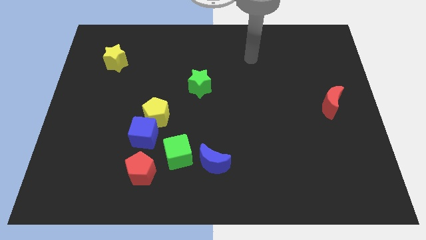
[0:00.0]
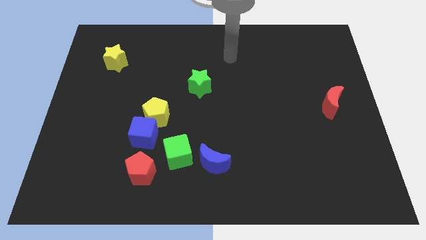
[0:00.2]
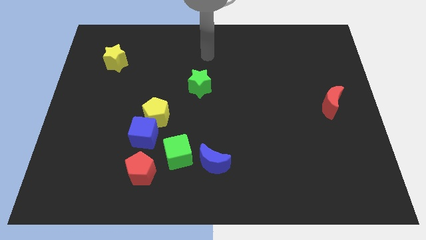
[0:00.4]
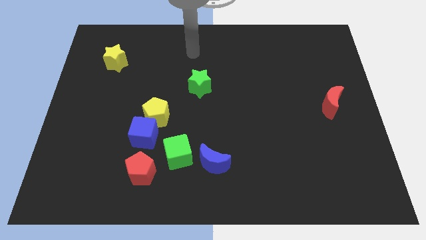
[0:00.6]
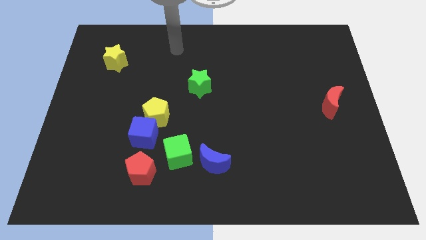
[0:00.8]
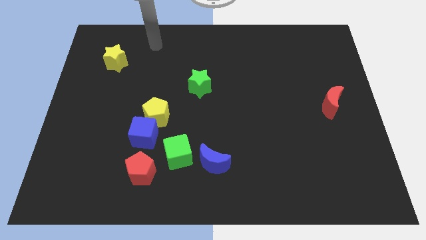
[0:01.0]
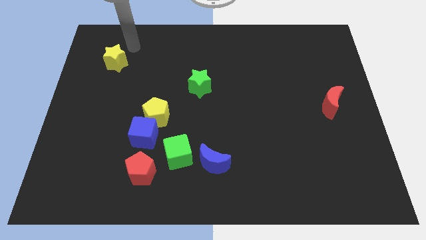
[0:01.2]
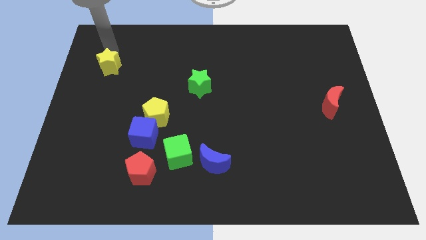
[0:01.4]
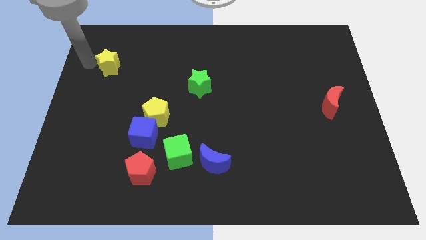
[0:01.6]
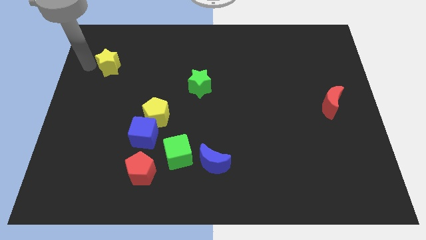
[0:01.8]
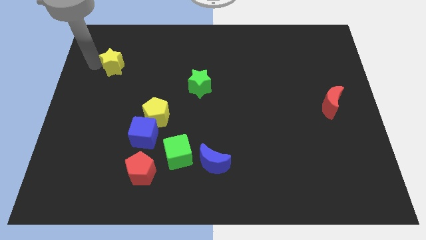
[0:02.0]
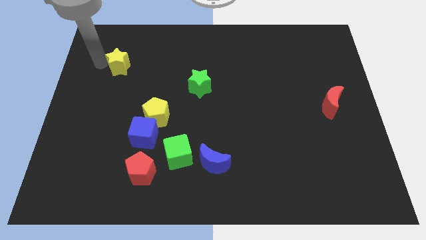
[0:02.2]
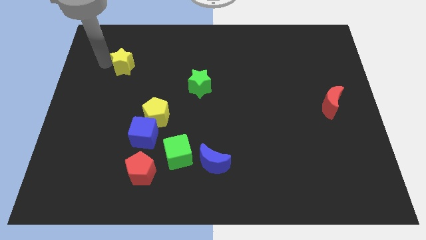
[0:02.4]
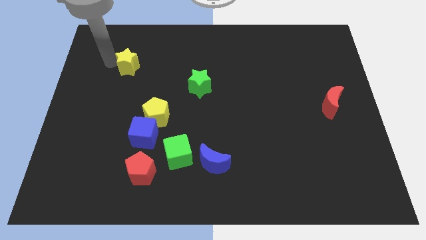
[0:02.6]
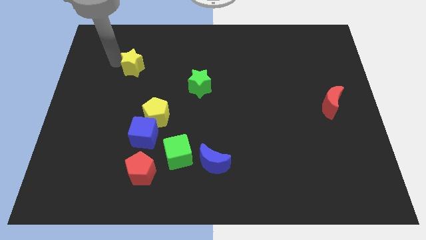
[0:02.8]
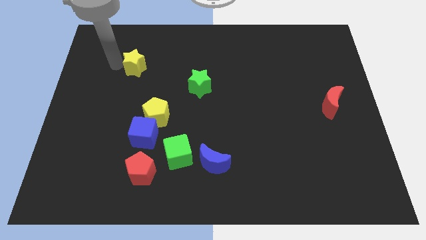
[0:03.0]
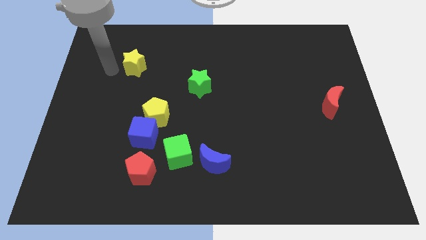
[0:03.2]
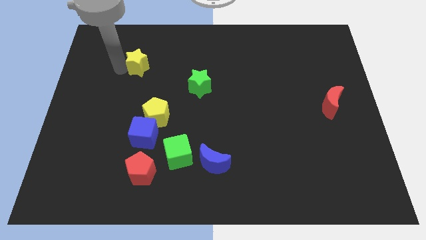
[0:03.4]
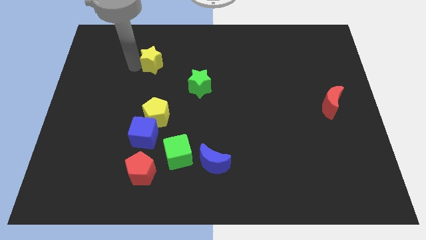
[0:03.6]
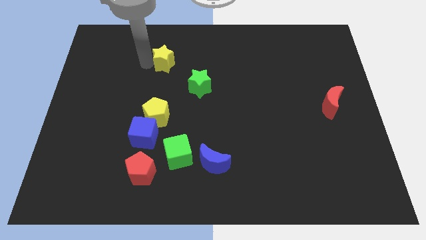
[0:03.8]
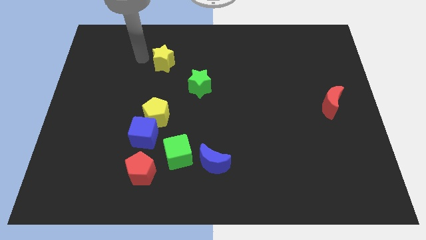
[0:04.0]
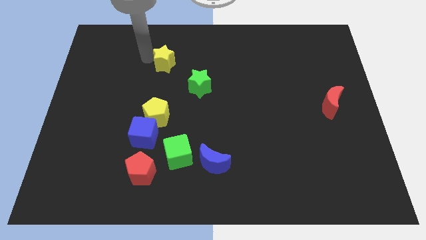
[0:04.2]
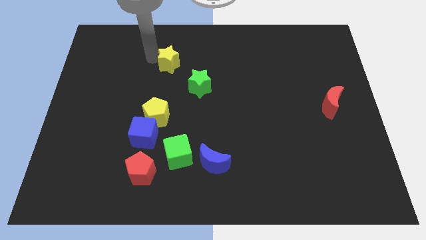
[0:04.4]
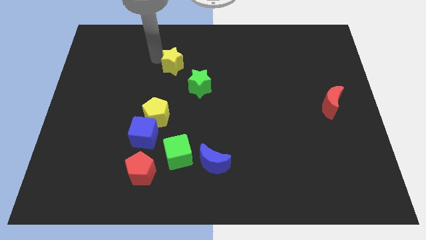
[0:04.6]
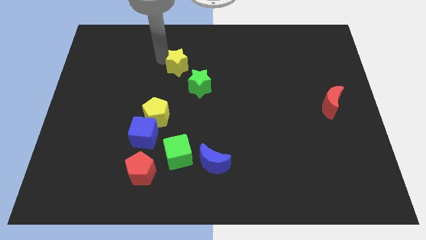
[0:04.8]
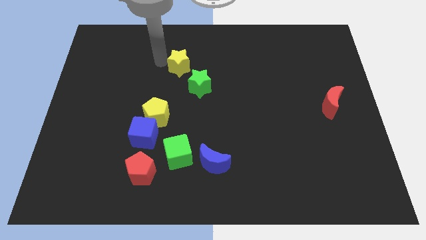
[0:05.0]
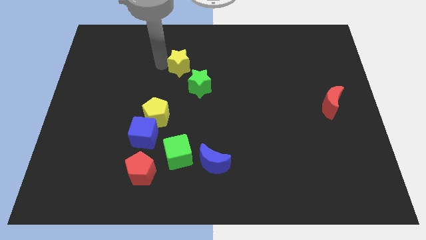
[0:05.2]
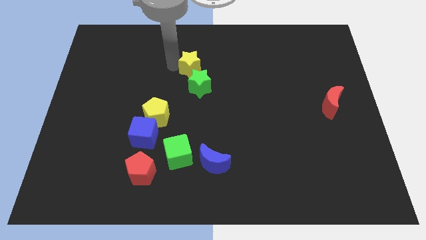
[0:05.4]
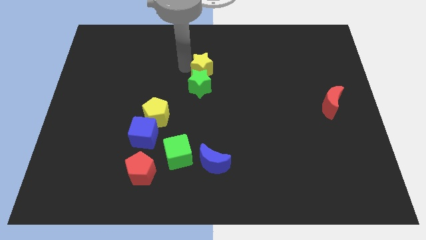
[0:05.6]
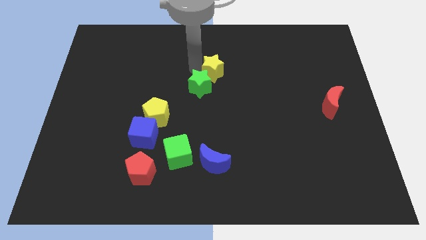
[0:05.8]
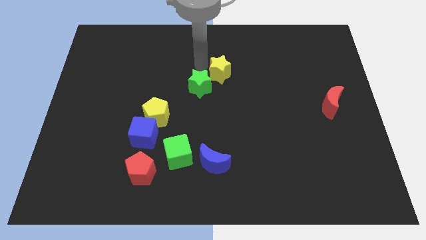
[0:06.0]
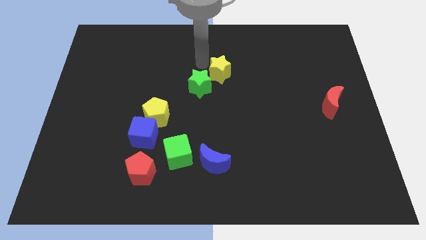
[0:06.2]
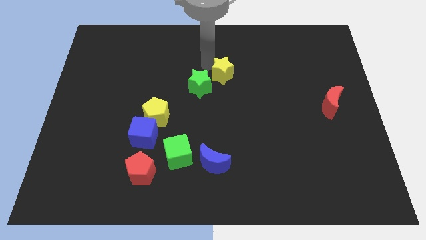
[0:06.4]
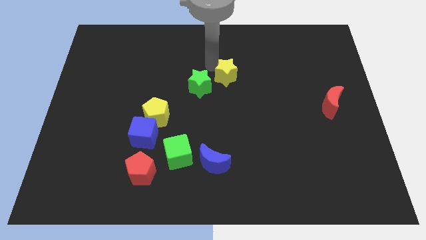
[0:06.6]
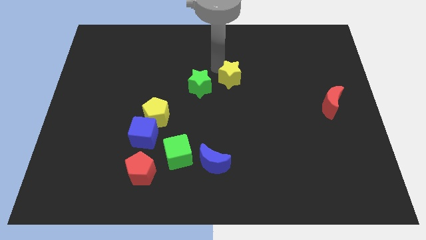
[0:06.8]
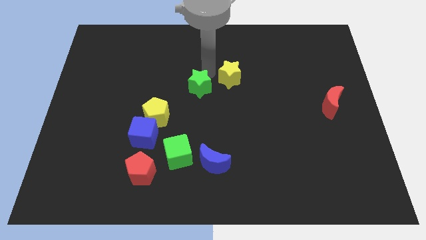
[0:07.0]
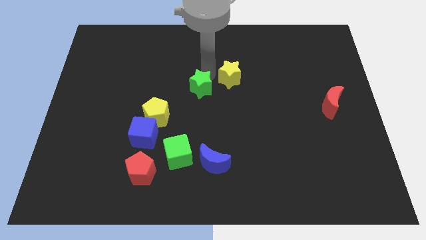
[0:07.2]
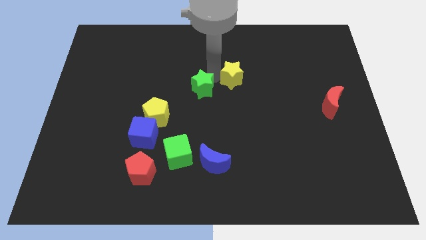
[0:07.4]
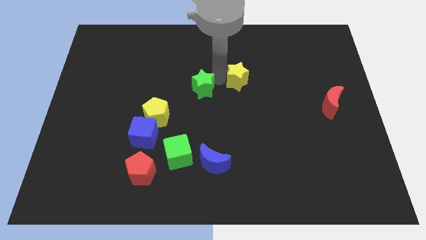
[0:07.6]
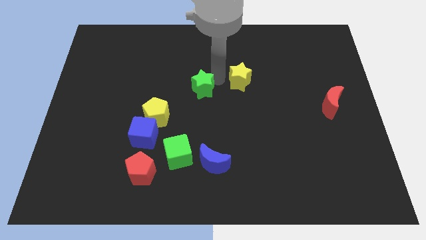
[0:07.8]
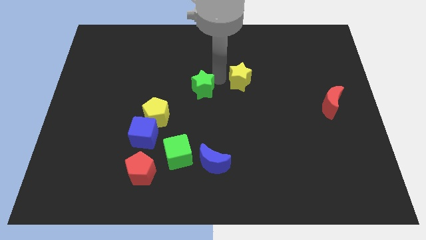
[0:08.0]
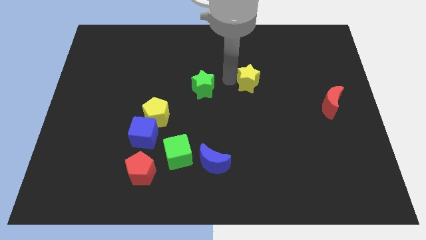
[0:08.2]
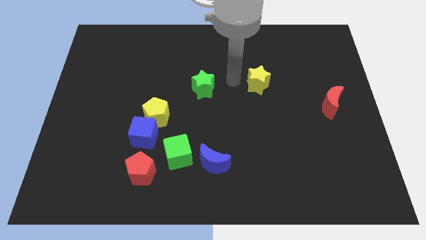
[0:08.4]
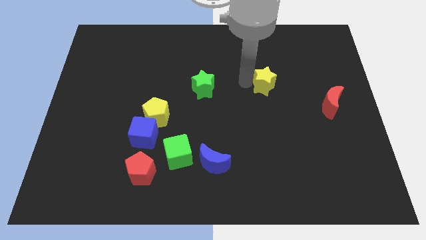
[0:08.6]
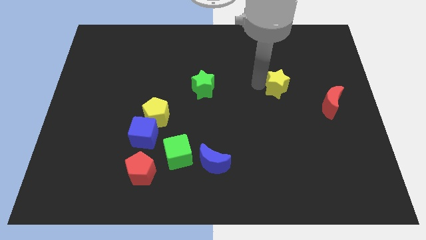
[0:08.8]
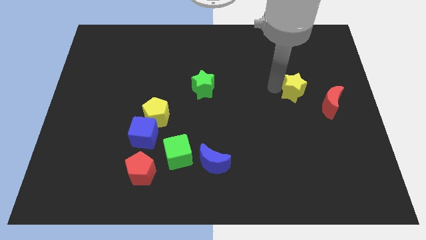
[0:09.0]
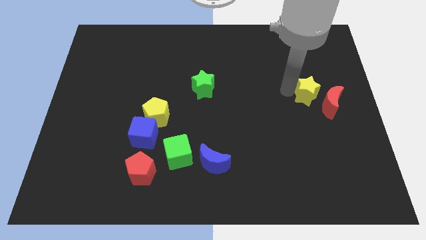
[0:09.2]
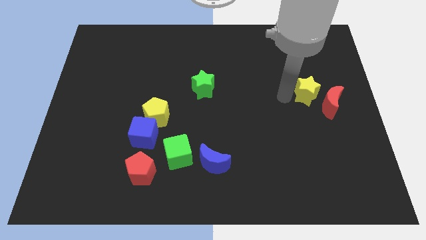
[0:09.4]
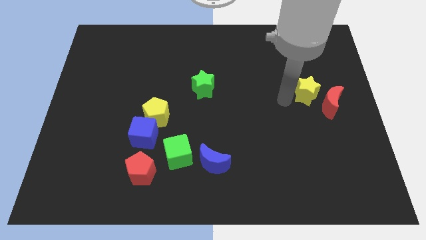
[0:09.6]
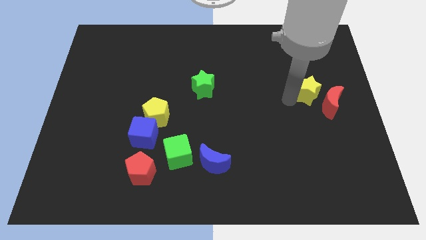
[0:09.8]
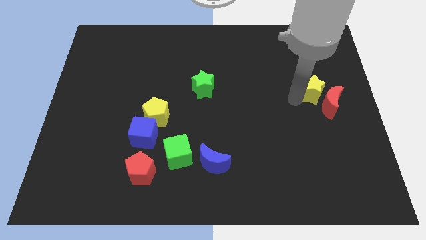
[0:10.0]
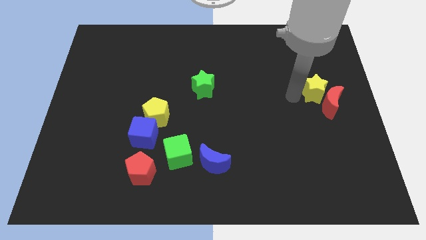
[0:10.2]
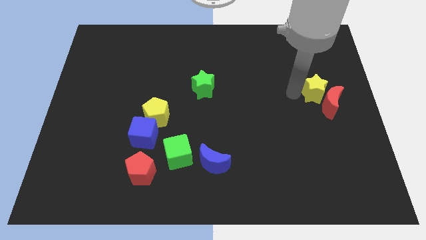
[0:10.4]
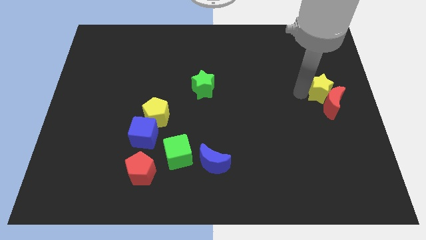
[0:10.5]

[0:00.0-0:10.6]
move the yellow star to the right side of the board

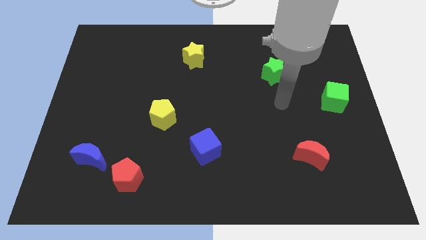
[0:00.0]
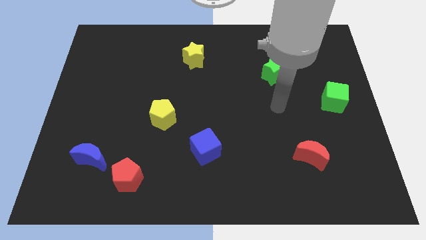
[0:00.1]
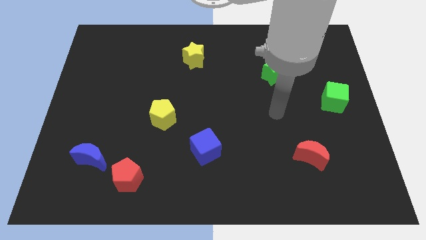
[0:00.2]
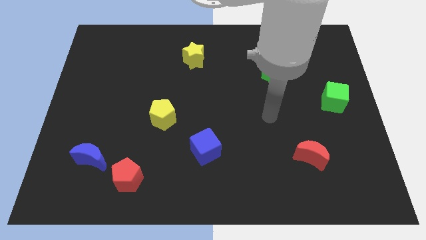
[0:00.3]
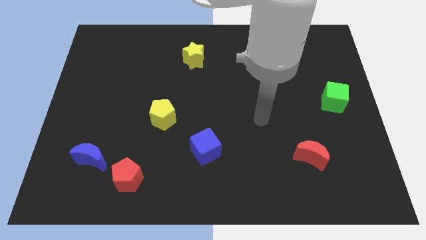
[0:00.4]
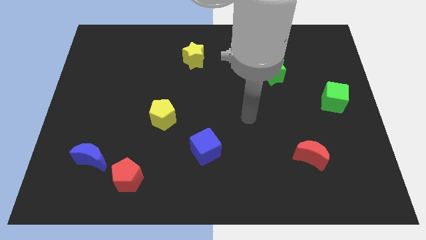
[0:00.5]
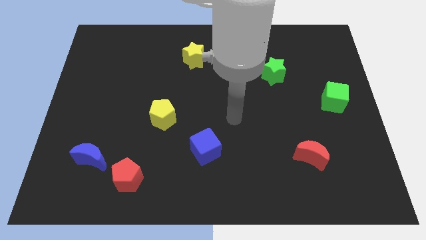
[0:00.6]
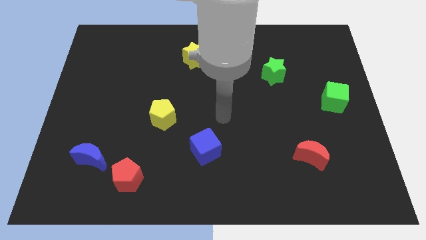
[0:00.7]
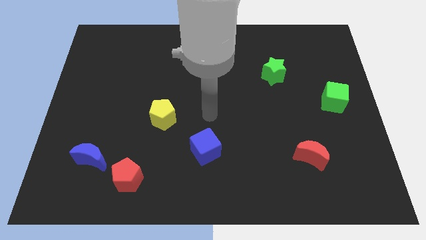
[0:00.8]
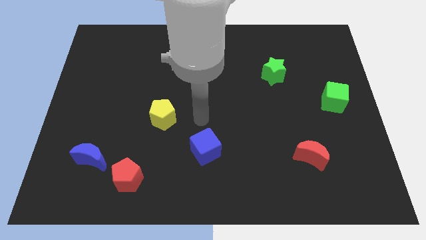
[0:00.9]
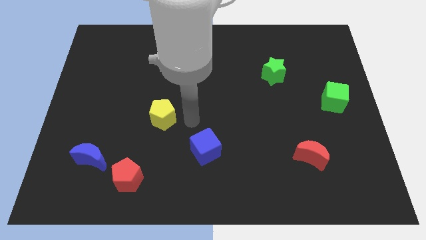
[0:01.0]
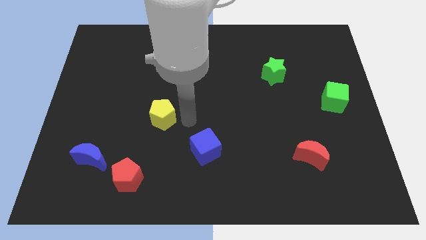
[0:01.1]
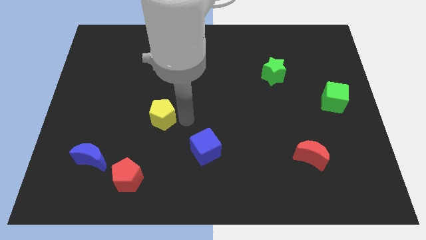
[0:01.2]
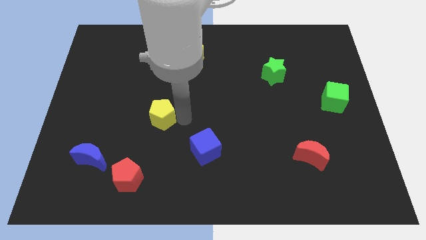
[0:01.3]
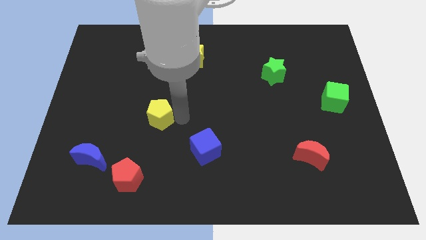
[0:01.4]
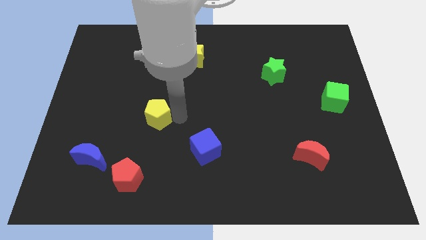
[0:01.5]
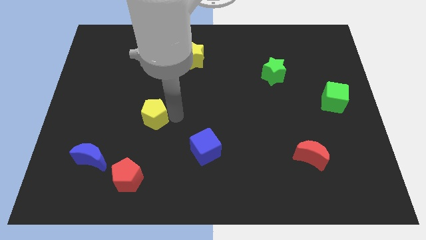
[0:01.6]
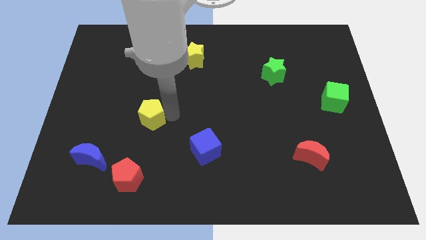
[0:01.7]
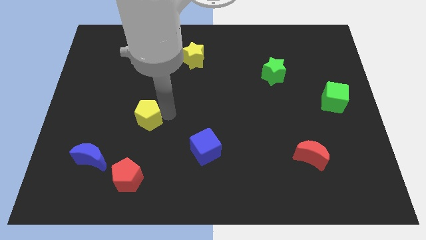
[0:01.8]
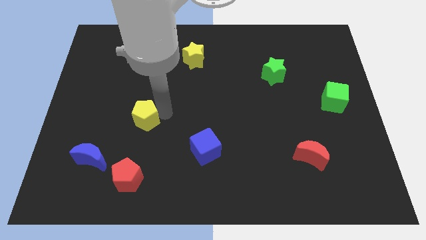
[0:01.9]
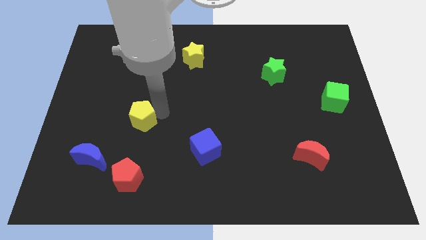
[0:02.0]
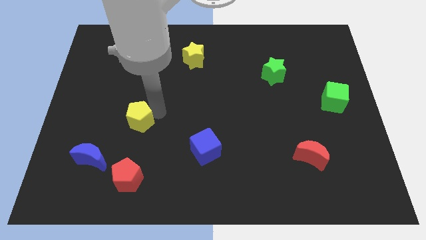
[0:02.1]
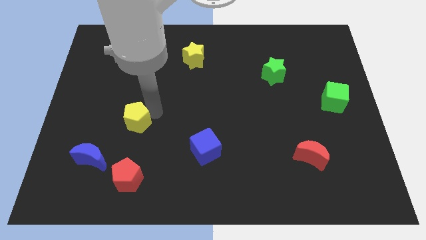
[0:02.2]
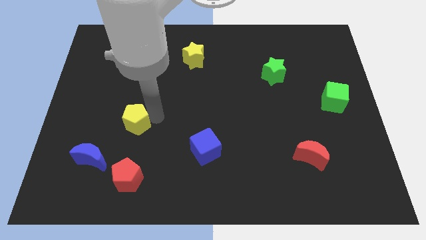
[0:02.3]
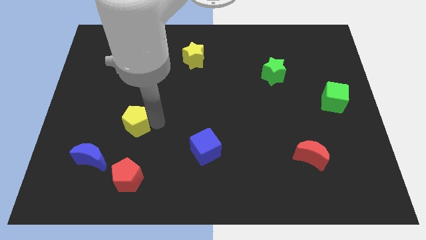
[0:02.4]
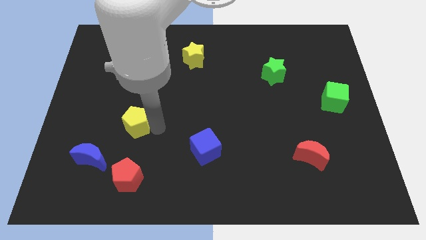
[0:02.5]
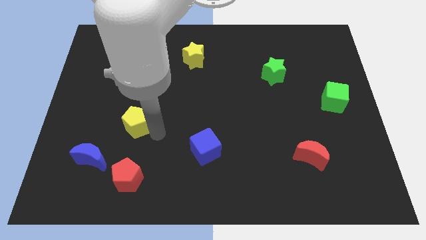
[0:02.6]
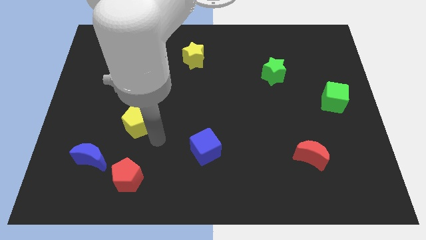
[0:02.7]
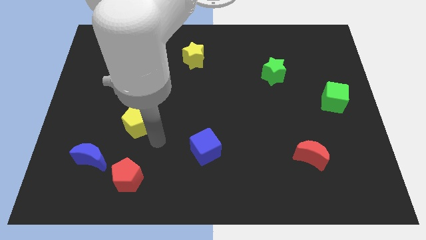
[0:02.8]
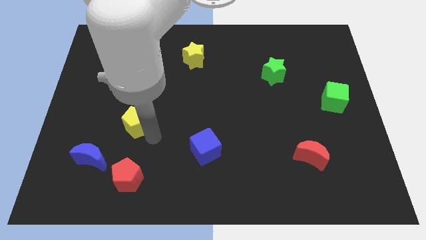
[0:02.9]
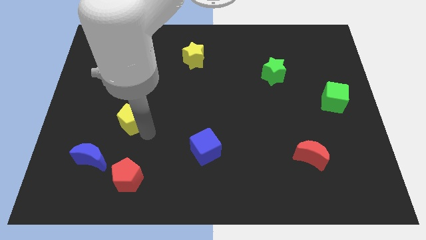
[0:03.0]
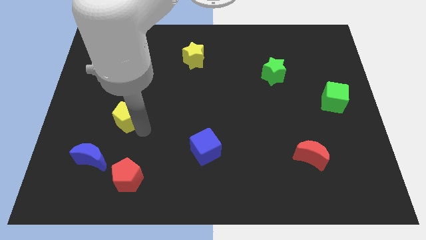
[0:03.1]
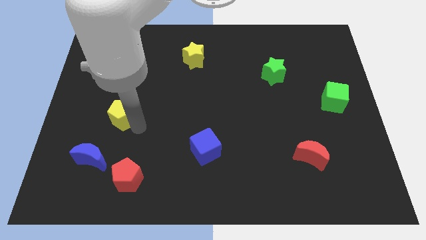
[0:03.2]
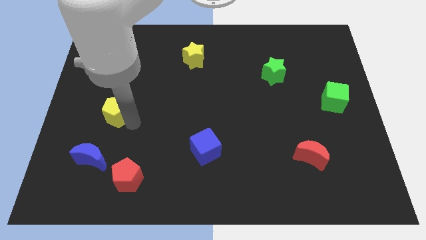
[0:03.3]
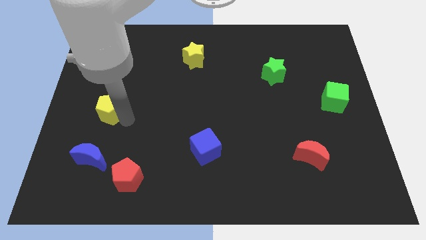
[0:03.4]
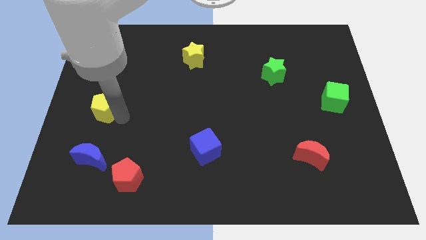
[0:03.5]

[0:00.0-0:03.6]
slide the yellow pentagon to the left side
